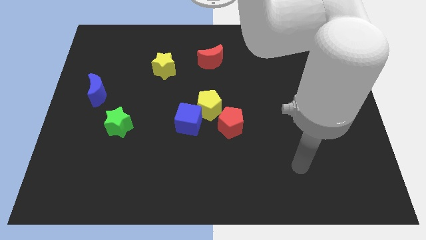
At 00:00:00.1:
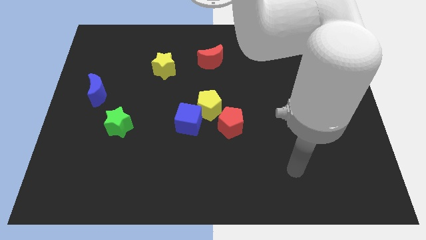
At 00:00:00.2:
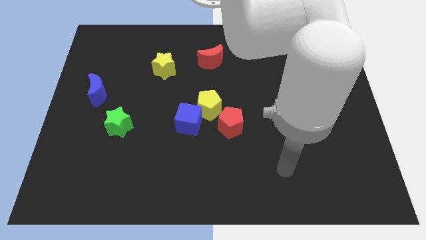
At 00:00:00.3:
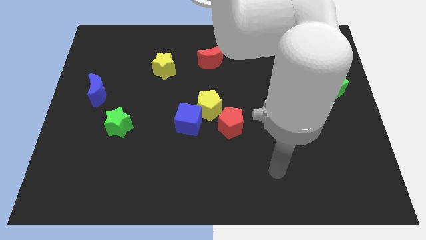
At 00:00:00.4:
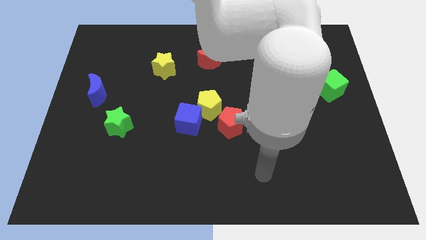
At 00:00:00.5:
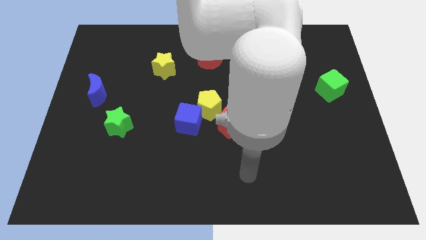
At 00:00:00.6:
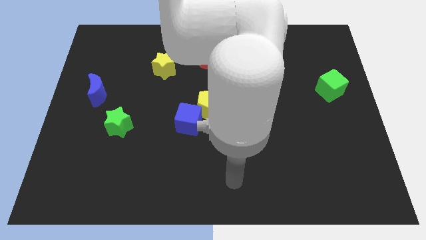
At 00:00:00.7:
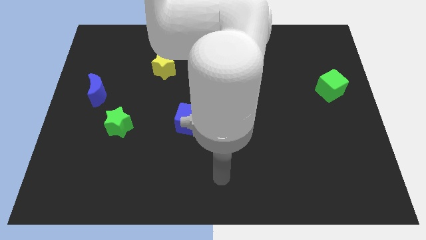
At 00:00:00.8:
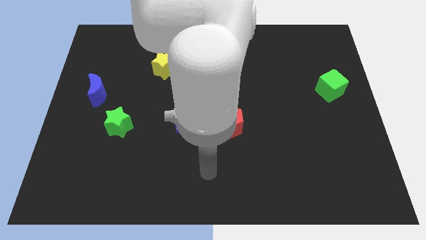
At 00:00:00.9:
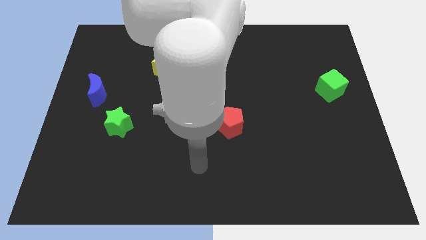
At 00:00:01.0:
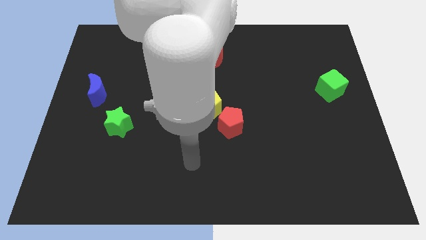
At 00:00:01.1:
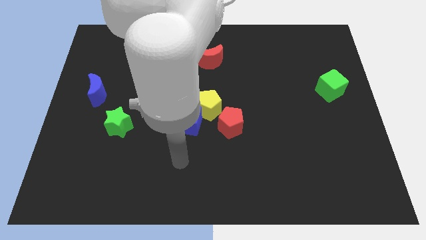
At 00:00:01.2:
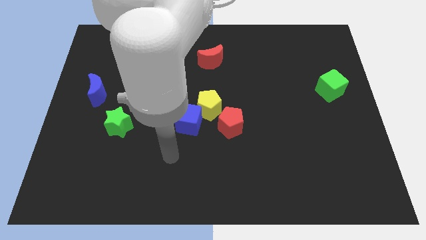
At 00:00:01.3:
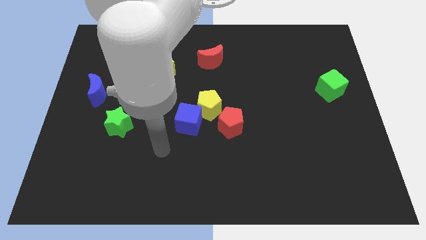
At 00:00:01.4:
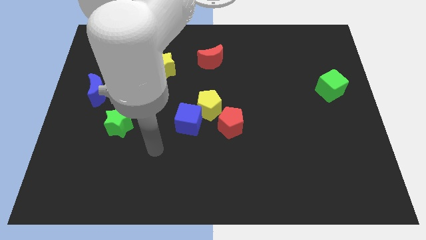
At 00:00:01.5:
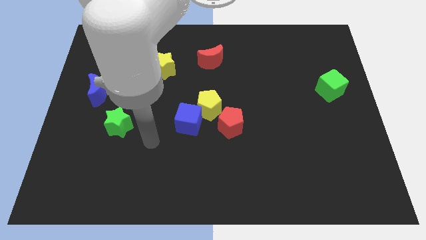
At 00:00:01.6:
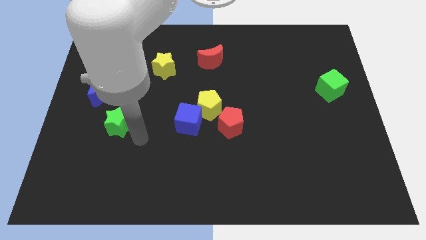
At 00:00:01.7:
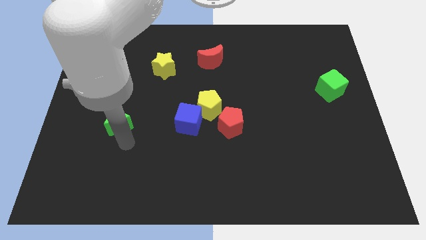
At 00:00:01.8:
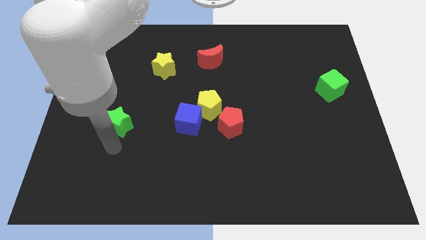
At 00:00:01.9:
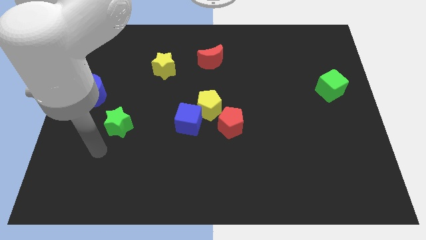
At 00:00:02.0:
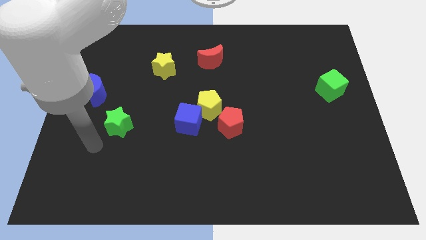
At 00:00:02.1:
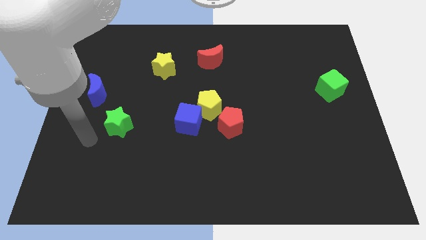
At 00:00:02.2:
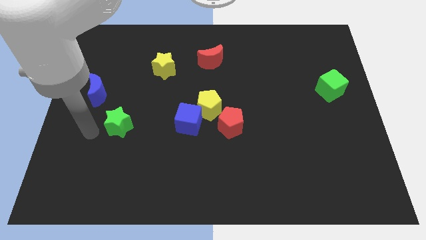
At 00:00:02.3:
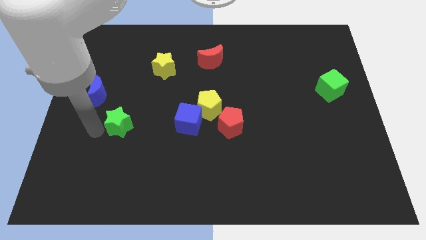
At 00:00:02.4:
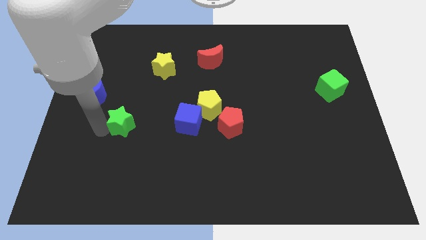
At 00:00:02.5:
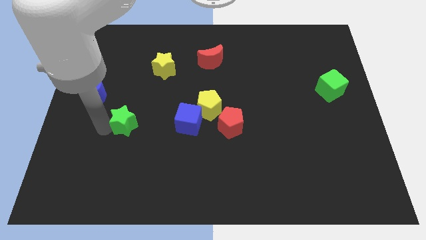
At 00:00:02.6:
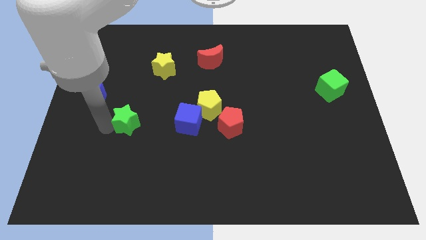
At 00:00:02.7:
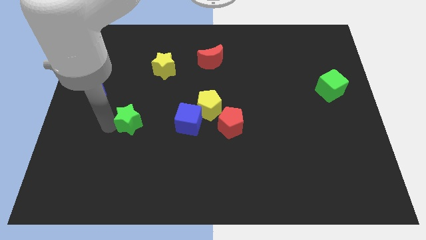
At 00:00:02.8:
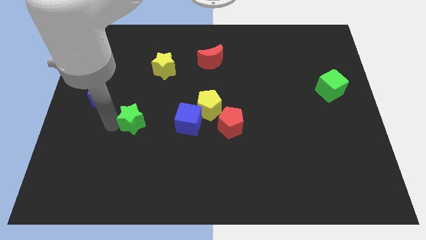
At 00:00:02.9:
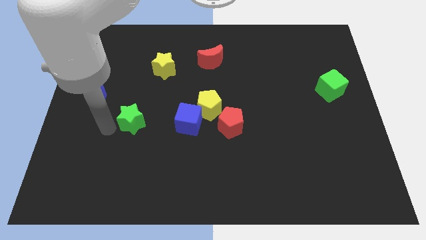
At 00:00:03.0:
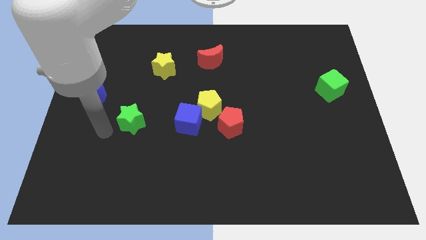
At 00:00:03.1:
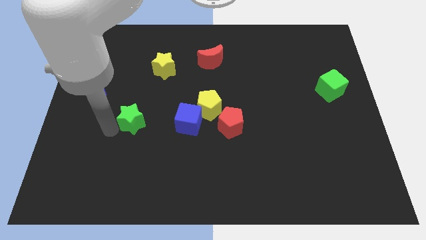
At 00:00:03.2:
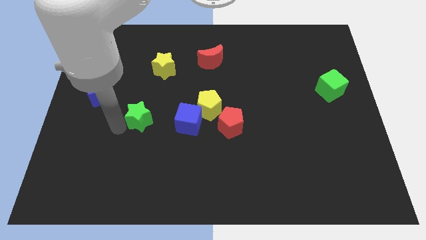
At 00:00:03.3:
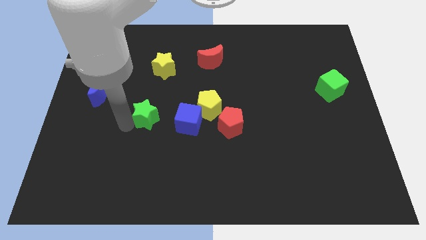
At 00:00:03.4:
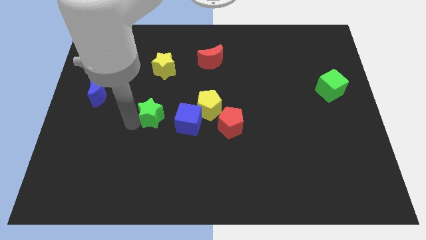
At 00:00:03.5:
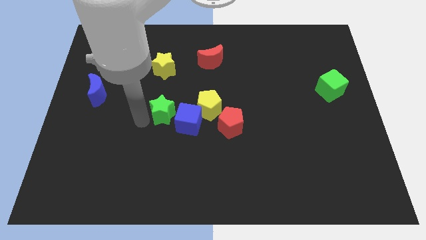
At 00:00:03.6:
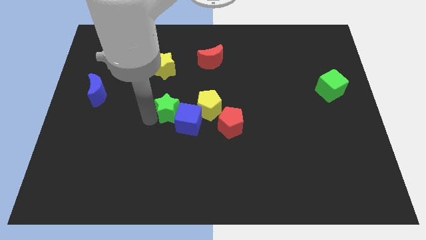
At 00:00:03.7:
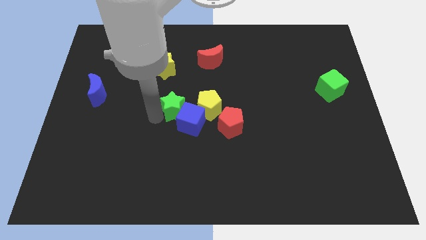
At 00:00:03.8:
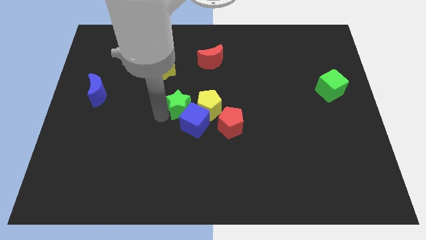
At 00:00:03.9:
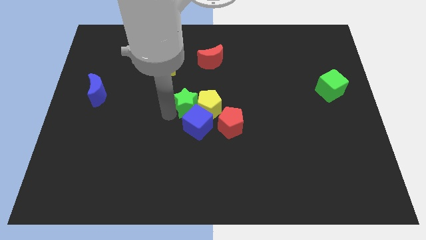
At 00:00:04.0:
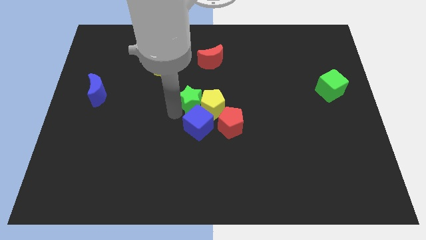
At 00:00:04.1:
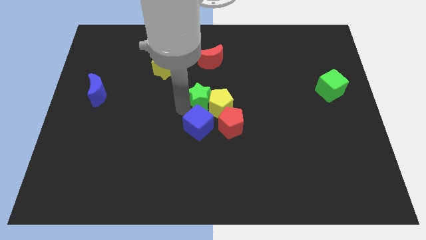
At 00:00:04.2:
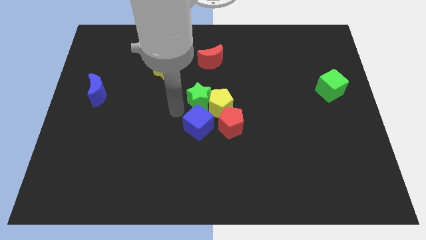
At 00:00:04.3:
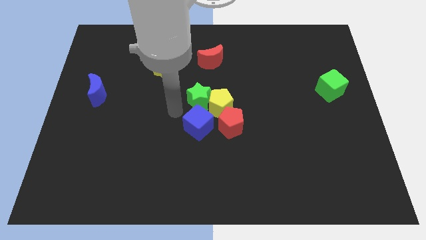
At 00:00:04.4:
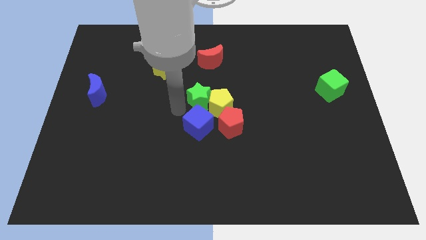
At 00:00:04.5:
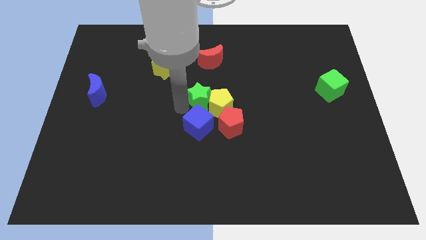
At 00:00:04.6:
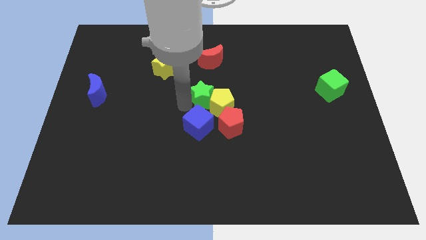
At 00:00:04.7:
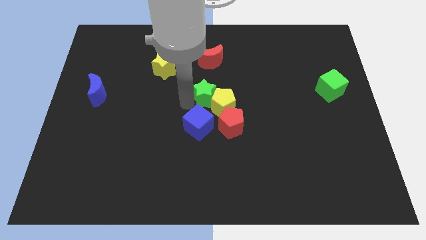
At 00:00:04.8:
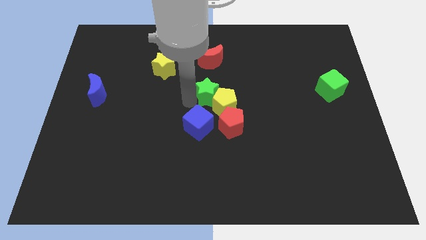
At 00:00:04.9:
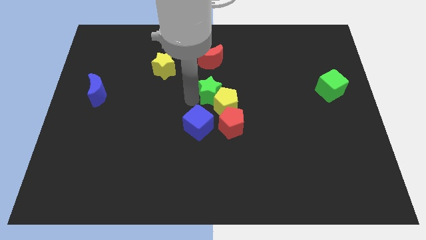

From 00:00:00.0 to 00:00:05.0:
push the green star above the red pentagon

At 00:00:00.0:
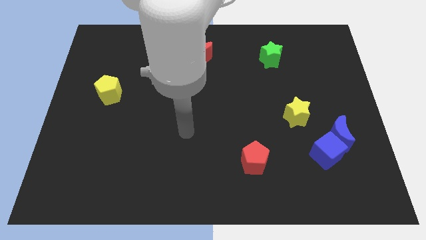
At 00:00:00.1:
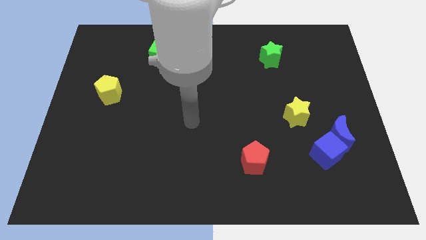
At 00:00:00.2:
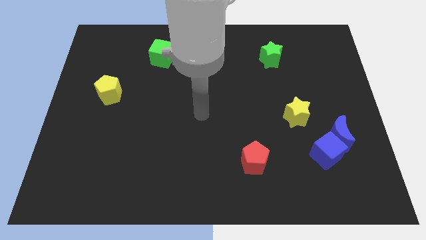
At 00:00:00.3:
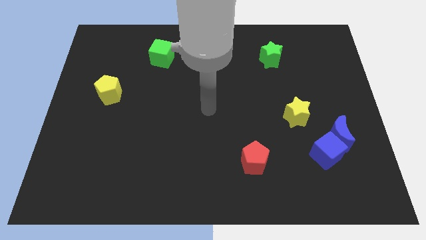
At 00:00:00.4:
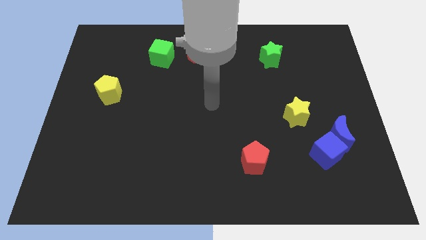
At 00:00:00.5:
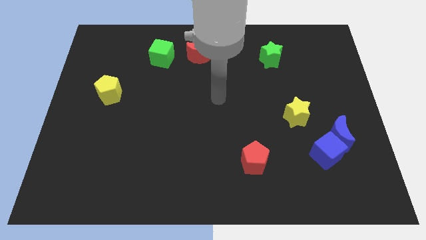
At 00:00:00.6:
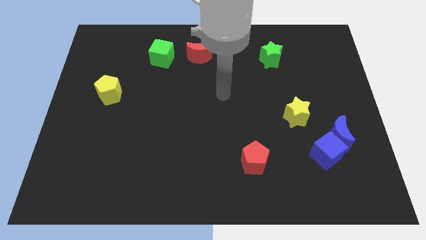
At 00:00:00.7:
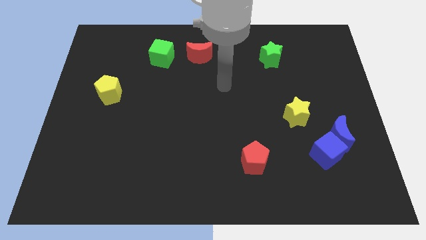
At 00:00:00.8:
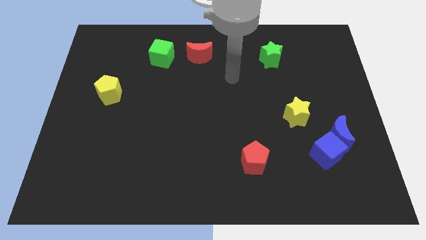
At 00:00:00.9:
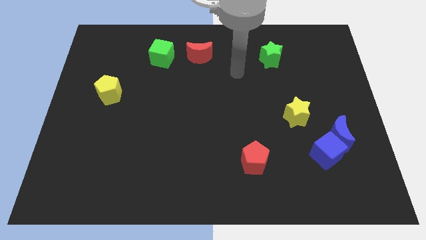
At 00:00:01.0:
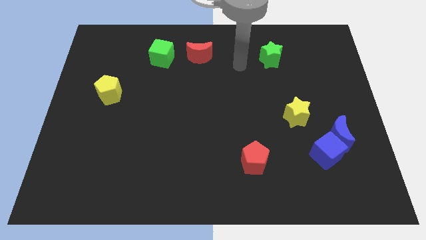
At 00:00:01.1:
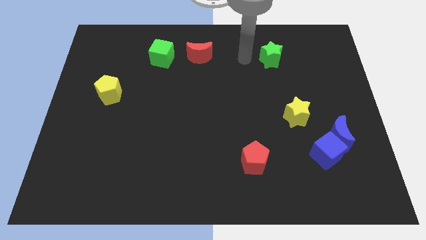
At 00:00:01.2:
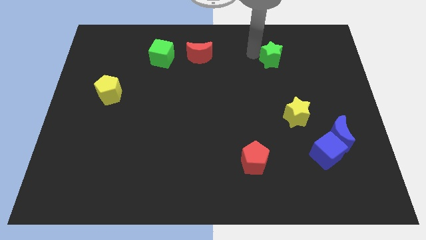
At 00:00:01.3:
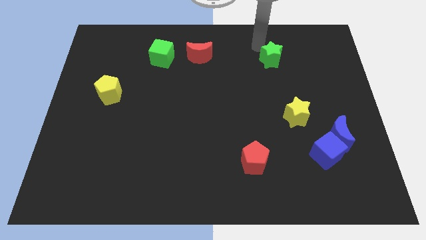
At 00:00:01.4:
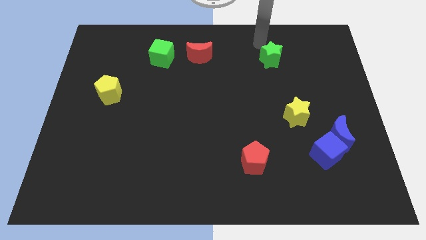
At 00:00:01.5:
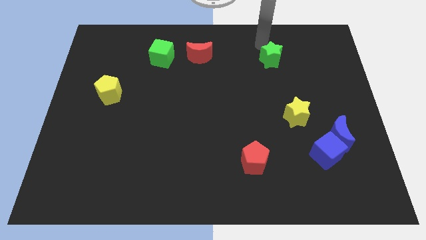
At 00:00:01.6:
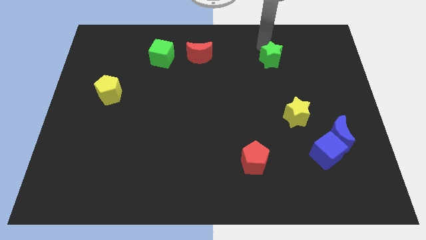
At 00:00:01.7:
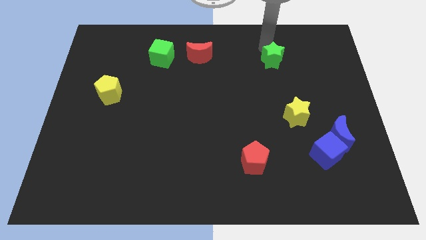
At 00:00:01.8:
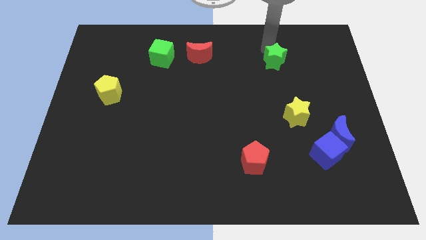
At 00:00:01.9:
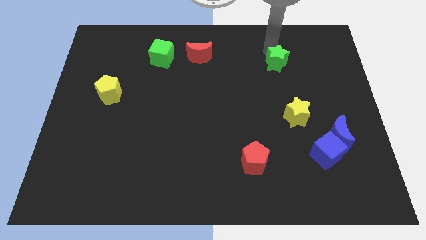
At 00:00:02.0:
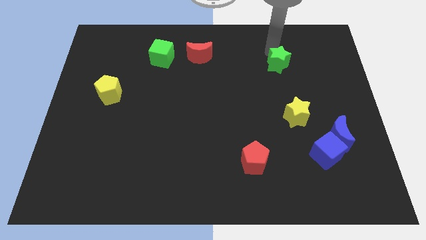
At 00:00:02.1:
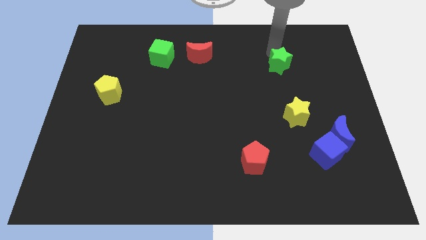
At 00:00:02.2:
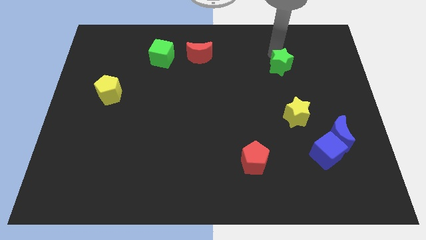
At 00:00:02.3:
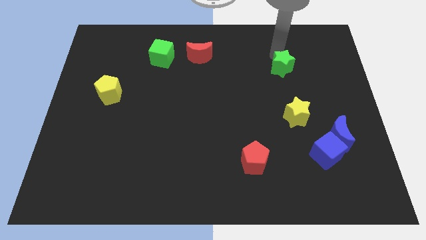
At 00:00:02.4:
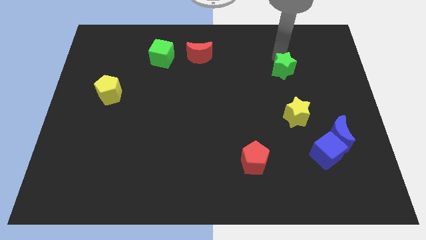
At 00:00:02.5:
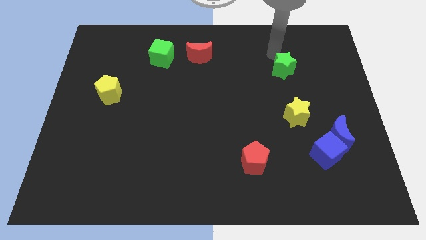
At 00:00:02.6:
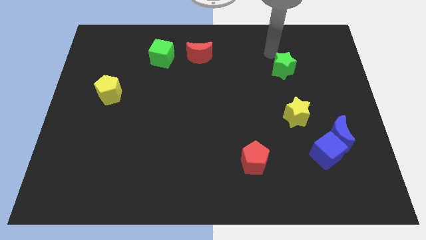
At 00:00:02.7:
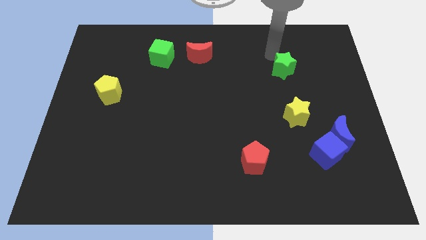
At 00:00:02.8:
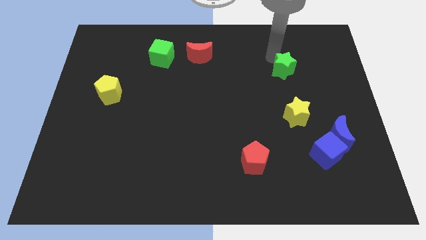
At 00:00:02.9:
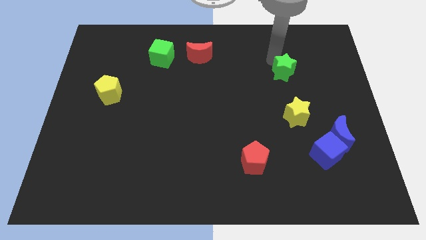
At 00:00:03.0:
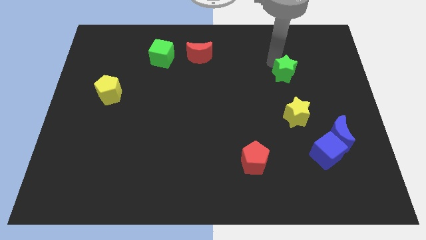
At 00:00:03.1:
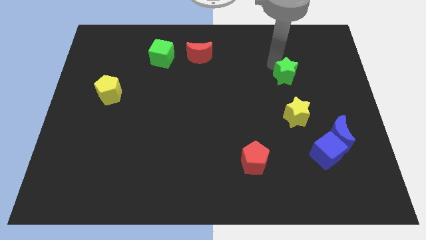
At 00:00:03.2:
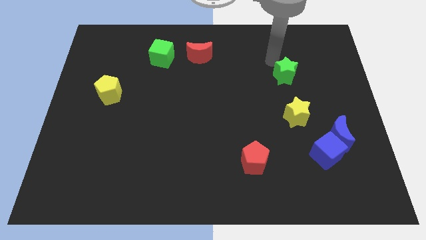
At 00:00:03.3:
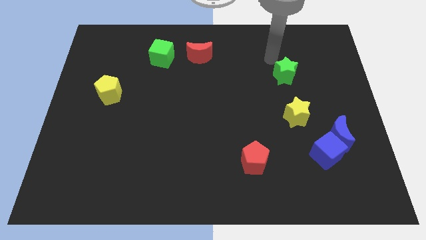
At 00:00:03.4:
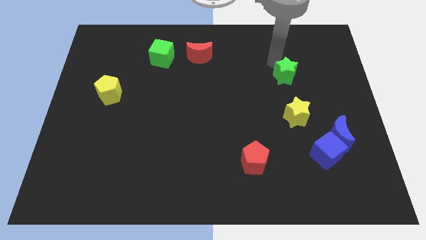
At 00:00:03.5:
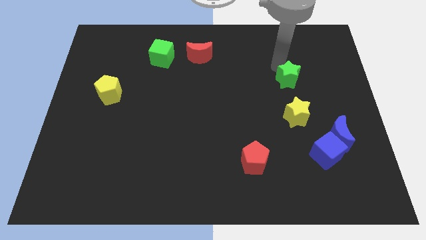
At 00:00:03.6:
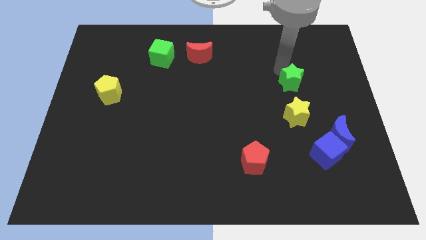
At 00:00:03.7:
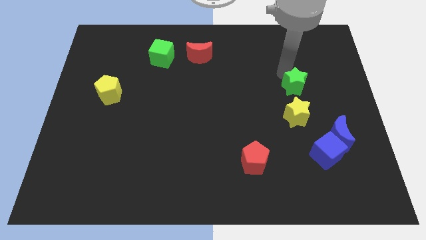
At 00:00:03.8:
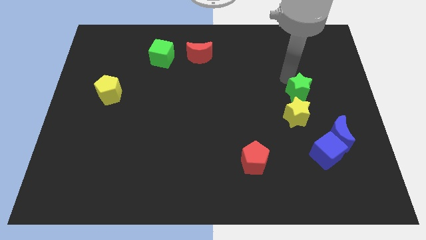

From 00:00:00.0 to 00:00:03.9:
move the green star to the top right side of the yellow star
